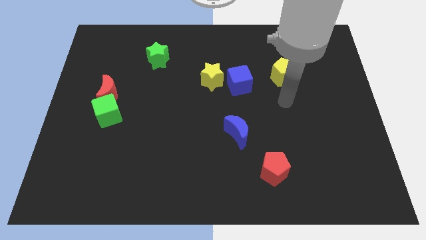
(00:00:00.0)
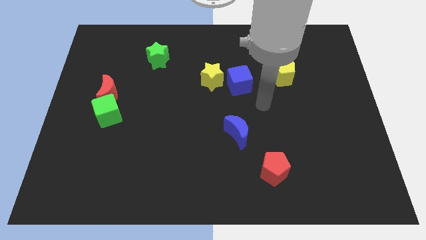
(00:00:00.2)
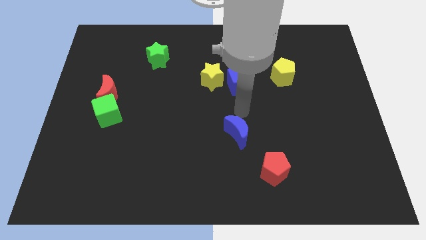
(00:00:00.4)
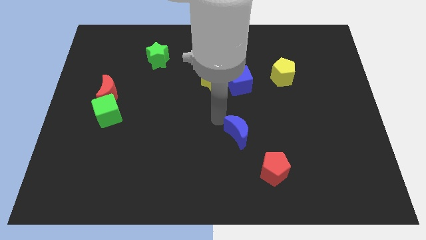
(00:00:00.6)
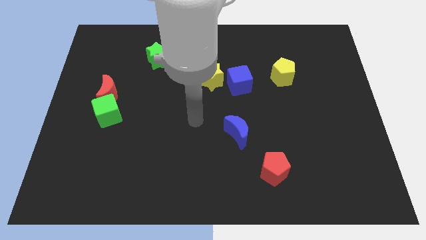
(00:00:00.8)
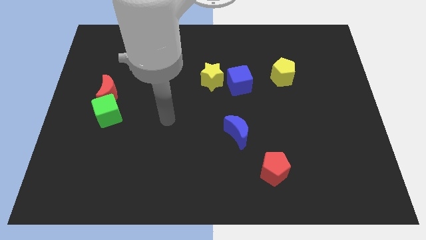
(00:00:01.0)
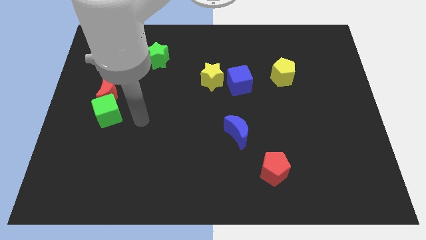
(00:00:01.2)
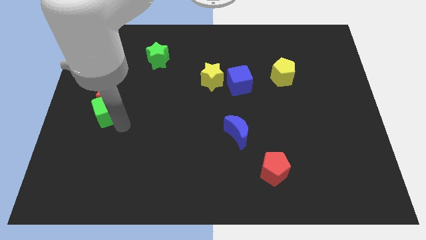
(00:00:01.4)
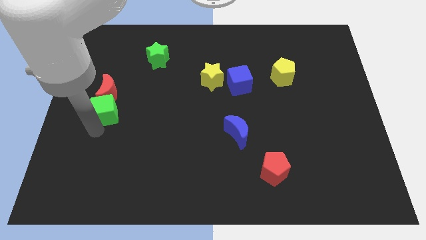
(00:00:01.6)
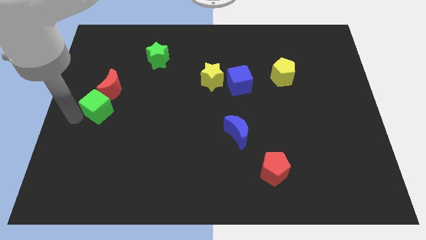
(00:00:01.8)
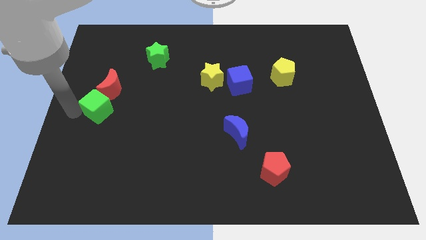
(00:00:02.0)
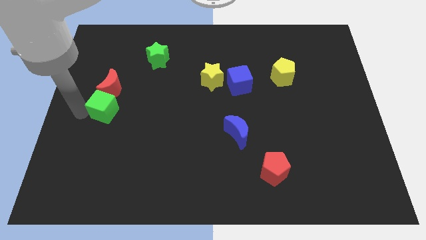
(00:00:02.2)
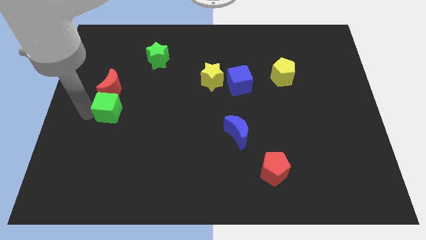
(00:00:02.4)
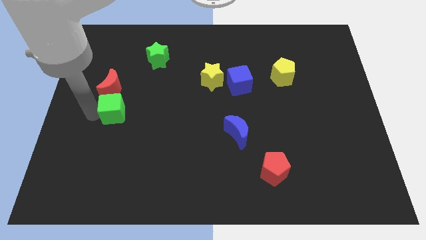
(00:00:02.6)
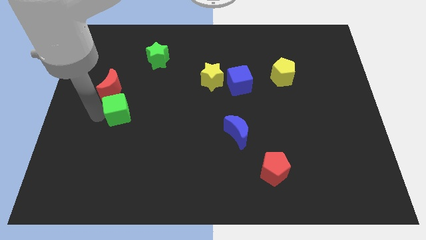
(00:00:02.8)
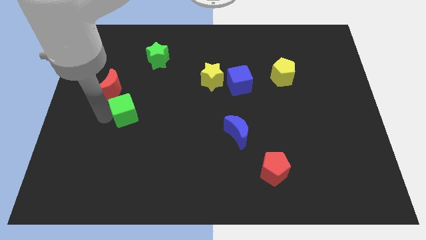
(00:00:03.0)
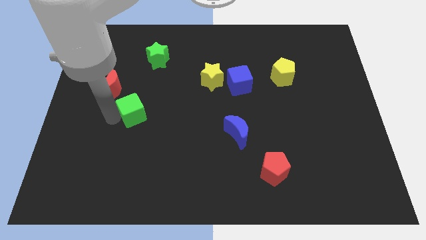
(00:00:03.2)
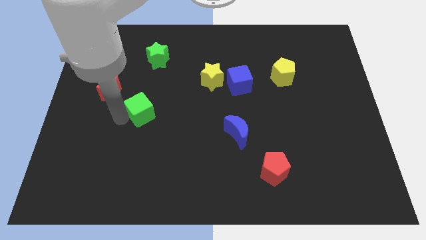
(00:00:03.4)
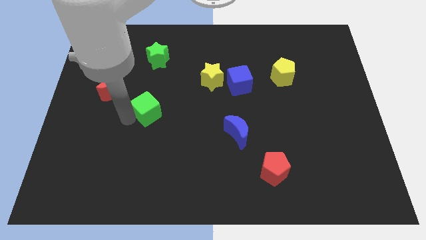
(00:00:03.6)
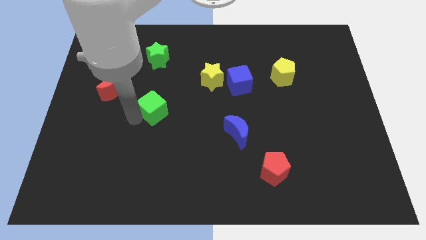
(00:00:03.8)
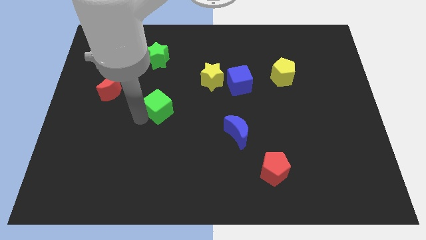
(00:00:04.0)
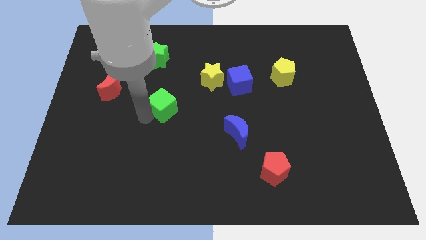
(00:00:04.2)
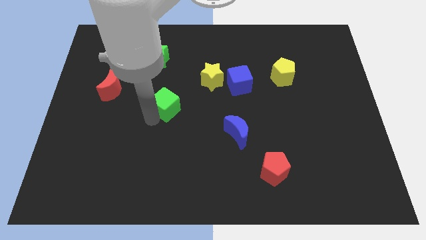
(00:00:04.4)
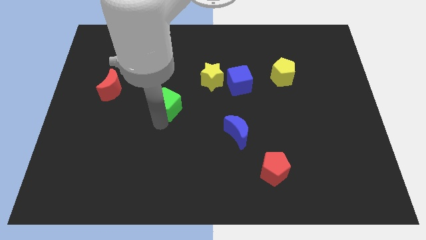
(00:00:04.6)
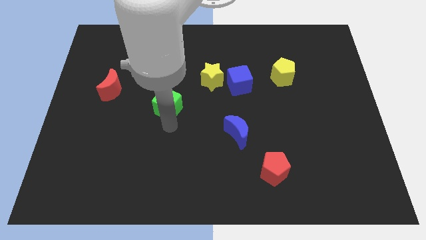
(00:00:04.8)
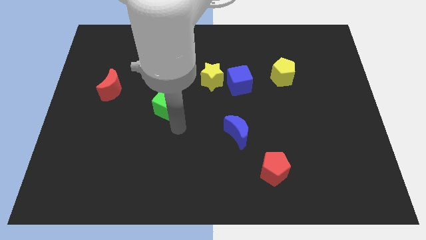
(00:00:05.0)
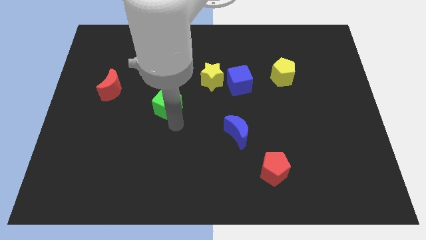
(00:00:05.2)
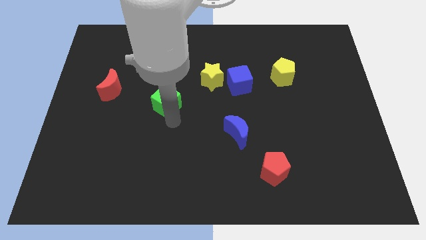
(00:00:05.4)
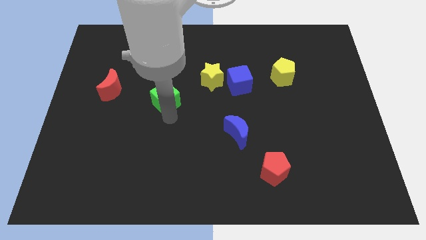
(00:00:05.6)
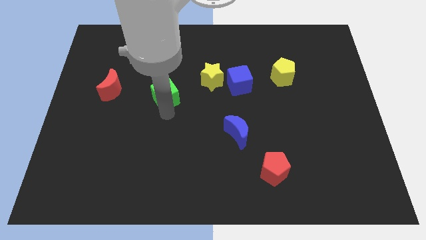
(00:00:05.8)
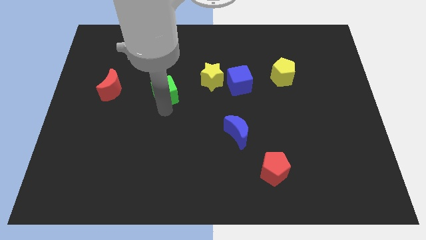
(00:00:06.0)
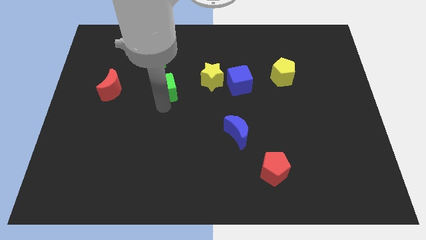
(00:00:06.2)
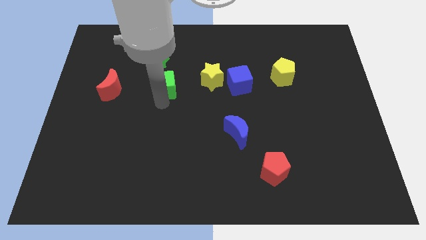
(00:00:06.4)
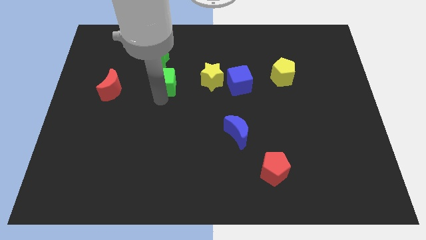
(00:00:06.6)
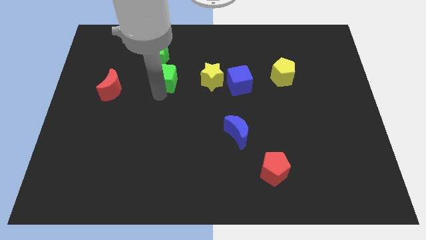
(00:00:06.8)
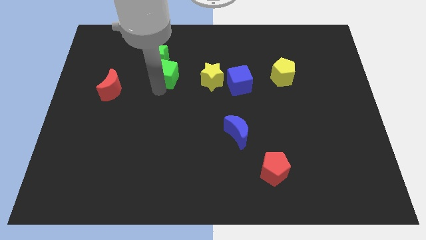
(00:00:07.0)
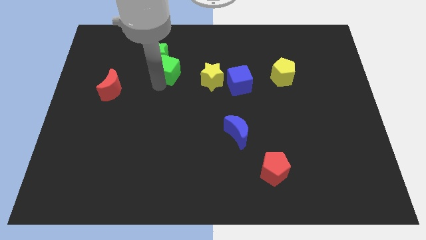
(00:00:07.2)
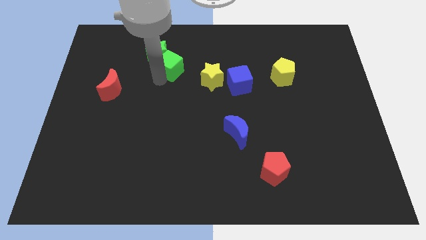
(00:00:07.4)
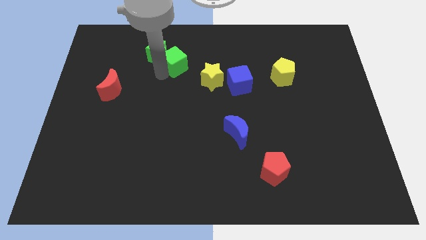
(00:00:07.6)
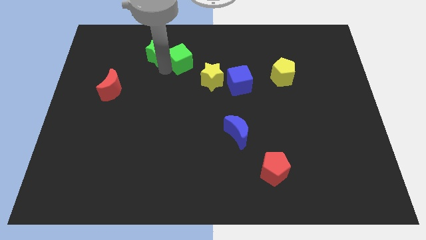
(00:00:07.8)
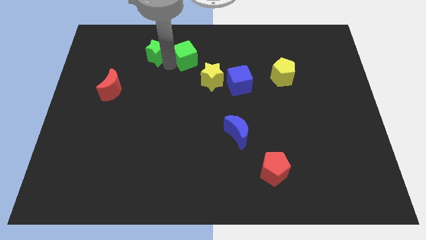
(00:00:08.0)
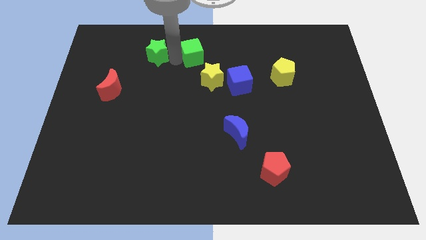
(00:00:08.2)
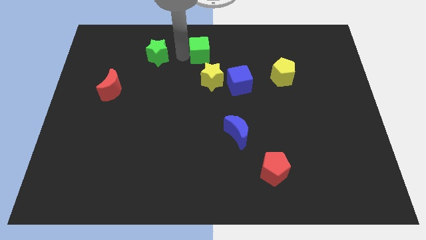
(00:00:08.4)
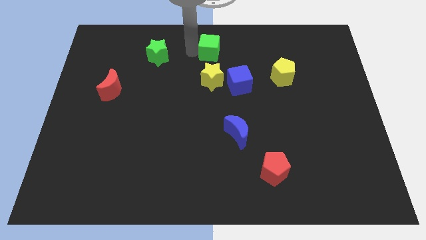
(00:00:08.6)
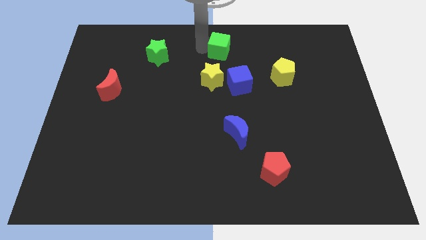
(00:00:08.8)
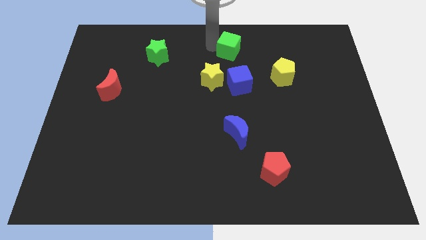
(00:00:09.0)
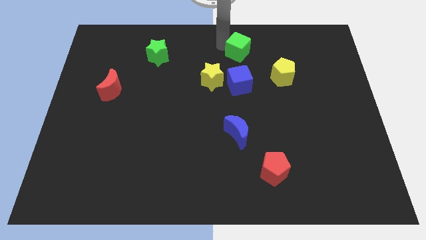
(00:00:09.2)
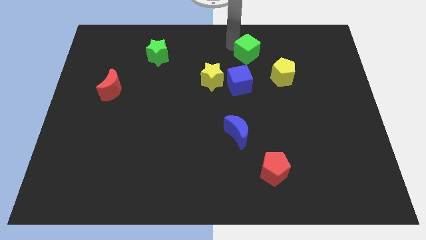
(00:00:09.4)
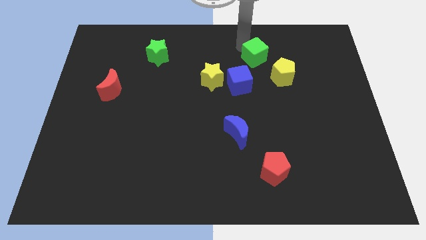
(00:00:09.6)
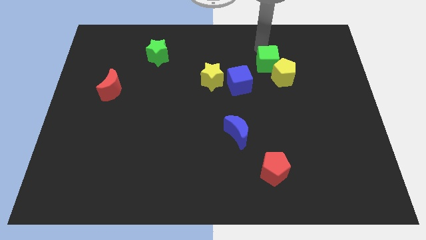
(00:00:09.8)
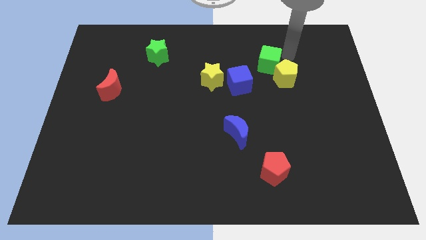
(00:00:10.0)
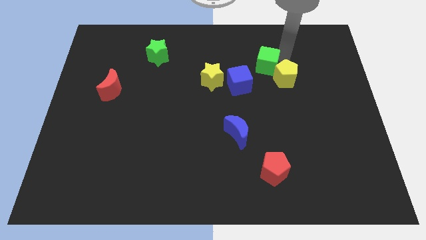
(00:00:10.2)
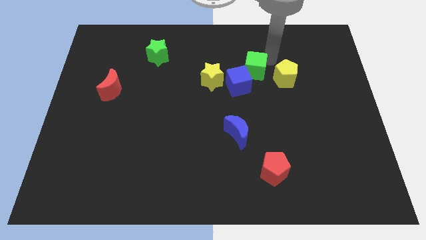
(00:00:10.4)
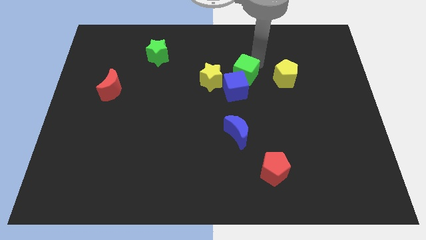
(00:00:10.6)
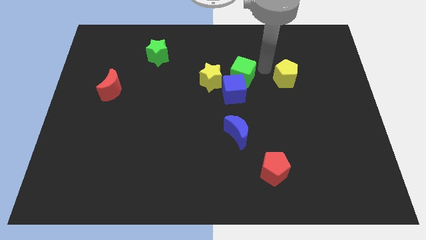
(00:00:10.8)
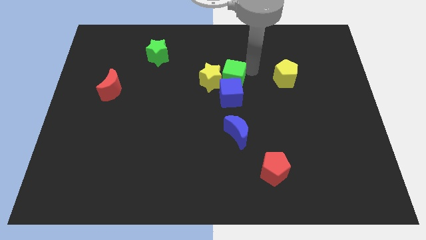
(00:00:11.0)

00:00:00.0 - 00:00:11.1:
move the green cube next to the yellow star

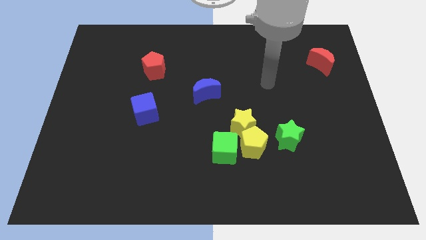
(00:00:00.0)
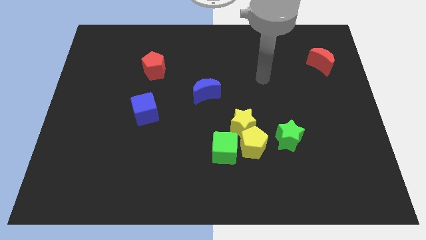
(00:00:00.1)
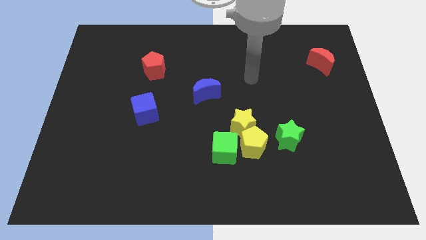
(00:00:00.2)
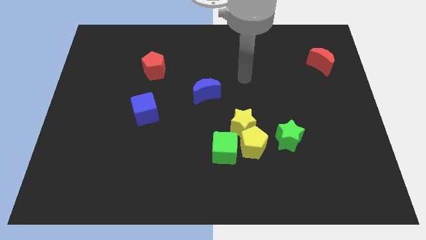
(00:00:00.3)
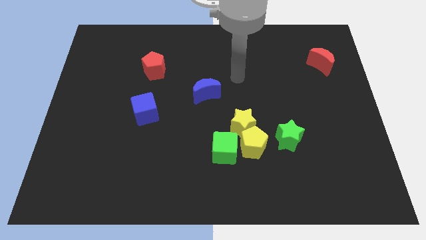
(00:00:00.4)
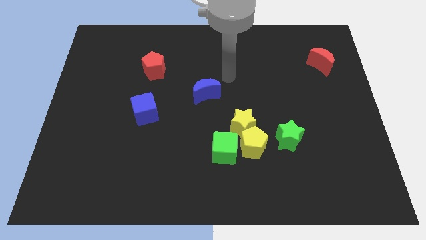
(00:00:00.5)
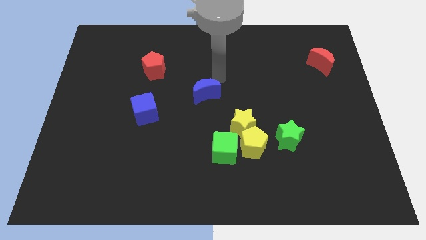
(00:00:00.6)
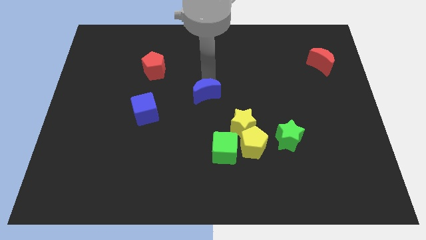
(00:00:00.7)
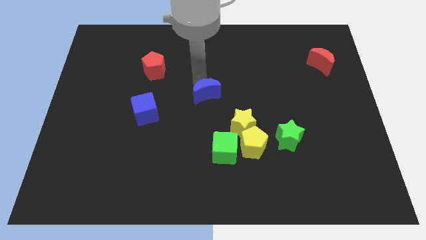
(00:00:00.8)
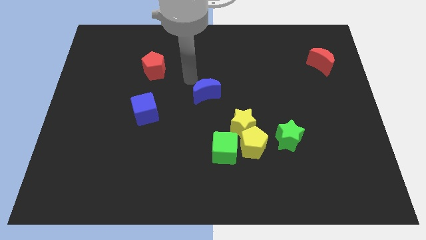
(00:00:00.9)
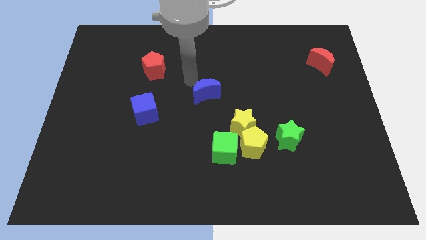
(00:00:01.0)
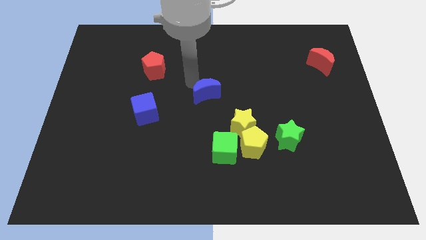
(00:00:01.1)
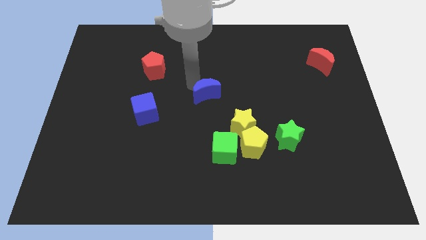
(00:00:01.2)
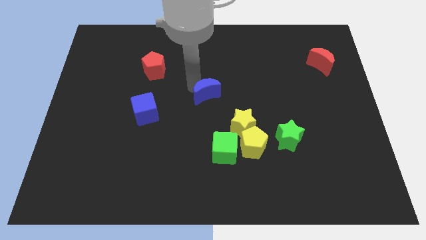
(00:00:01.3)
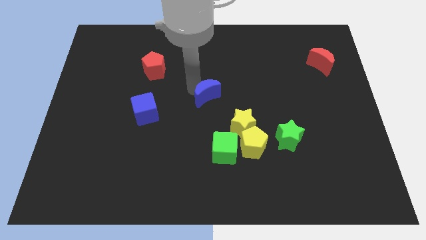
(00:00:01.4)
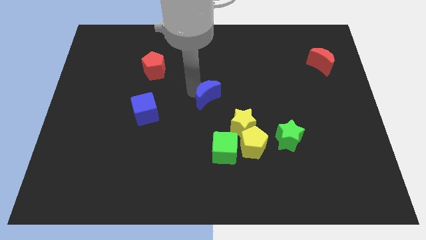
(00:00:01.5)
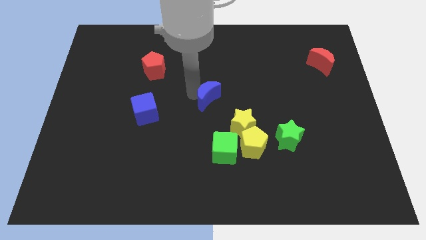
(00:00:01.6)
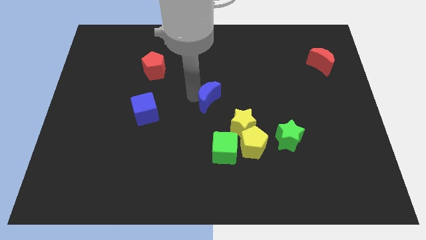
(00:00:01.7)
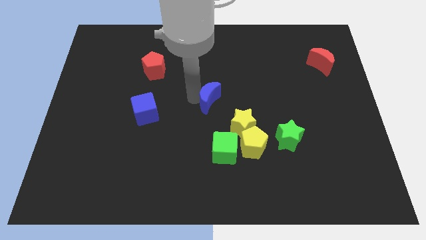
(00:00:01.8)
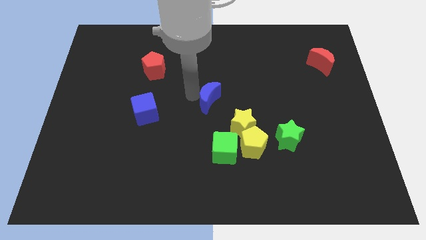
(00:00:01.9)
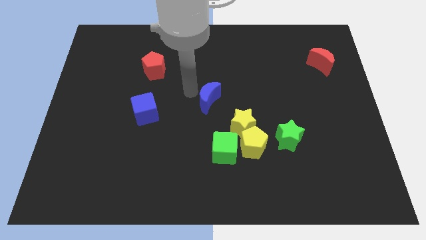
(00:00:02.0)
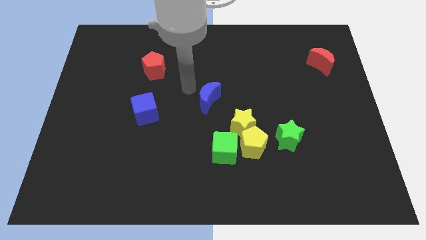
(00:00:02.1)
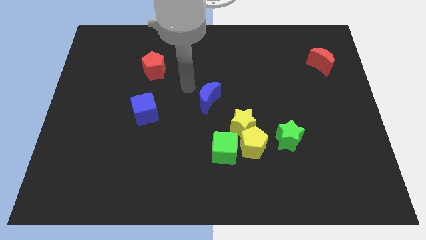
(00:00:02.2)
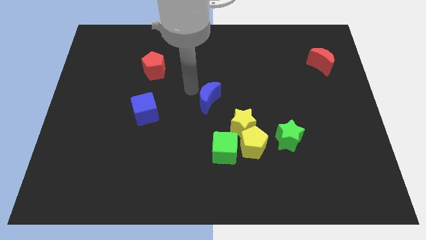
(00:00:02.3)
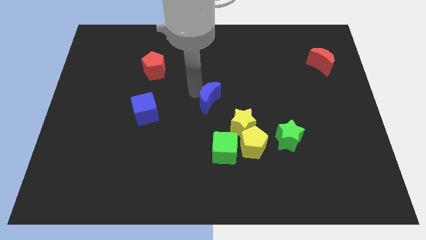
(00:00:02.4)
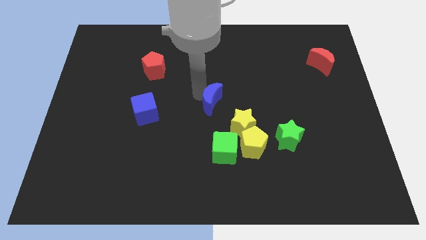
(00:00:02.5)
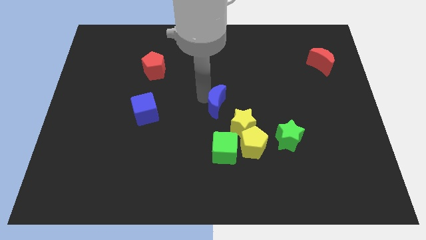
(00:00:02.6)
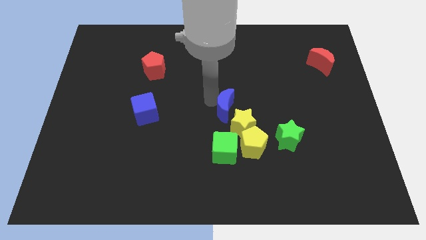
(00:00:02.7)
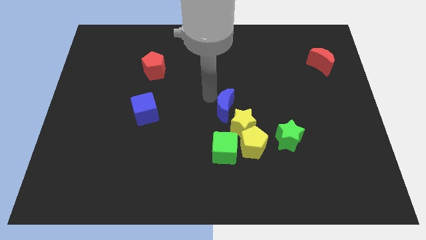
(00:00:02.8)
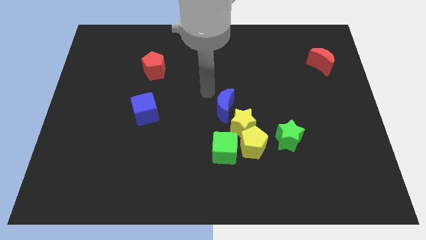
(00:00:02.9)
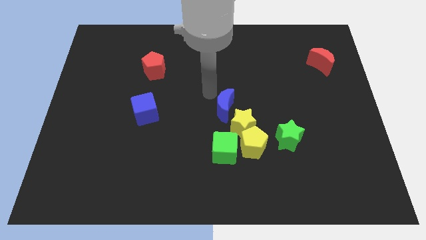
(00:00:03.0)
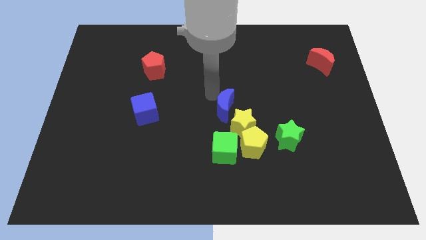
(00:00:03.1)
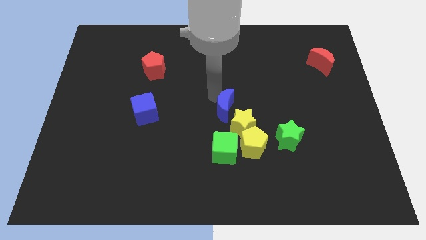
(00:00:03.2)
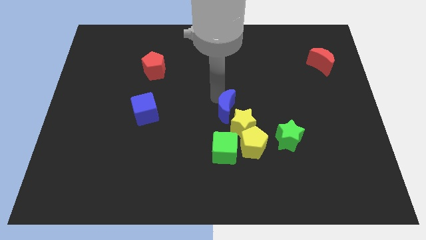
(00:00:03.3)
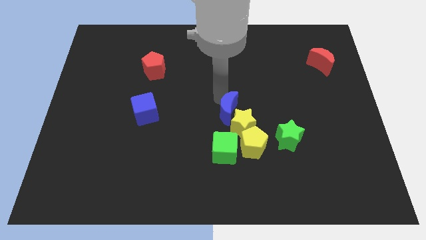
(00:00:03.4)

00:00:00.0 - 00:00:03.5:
move the blue moon to the yellow star
